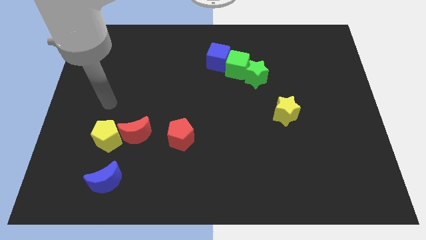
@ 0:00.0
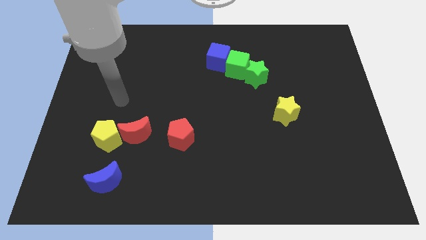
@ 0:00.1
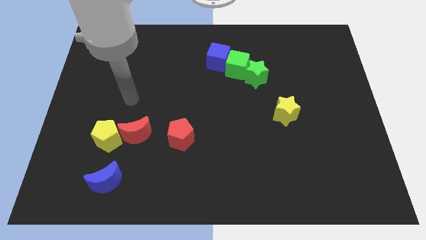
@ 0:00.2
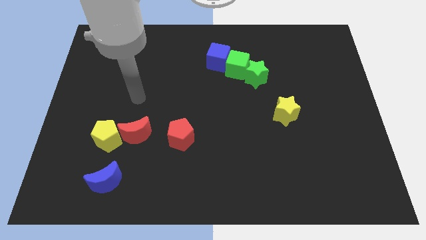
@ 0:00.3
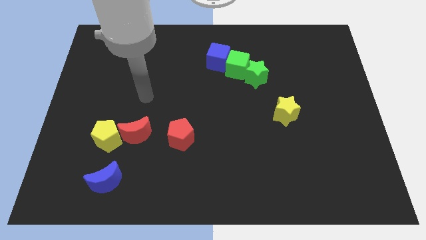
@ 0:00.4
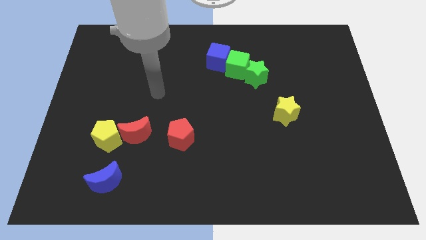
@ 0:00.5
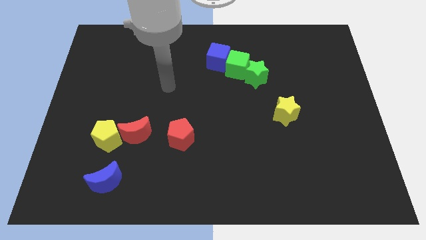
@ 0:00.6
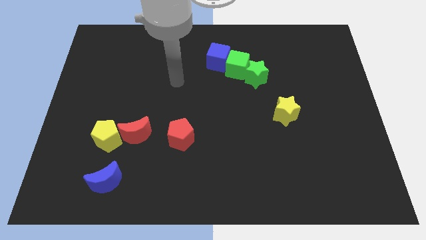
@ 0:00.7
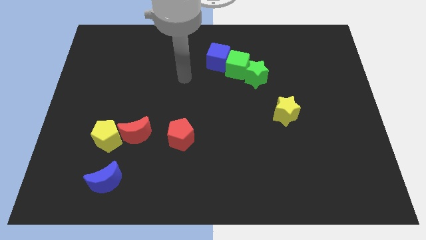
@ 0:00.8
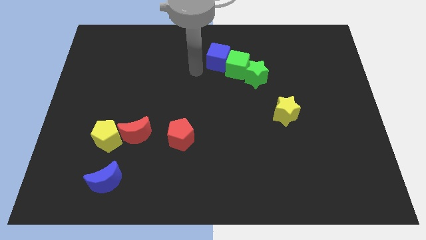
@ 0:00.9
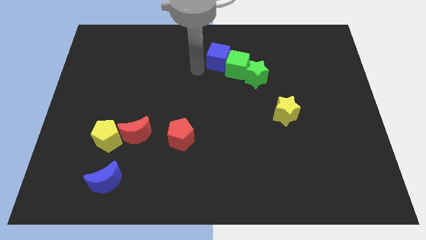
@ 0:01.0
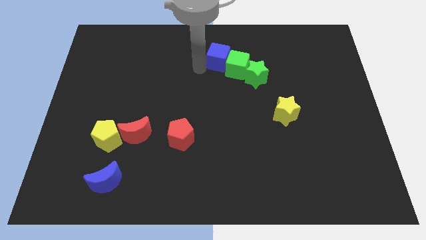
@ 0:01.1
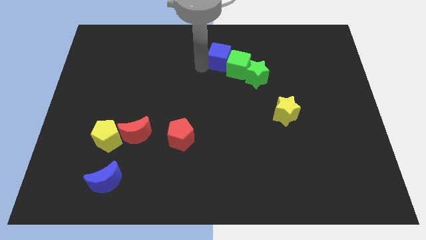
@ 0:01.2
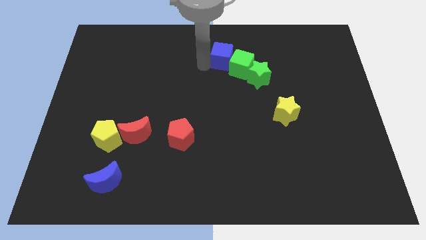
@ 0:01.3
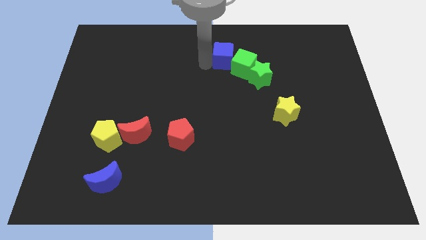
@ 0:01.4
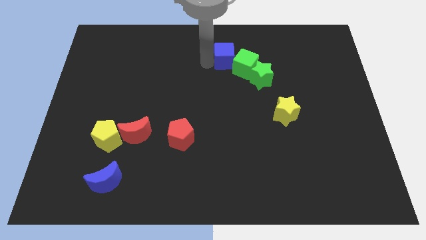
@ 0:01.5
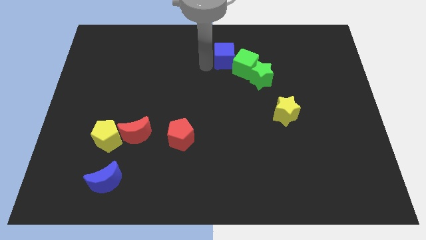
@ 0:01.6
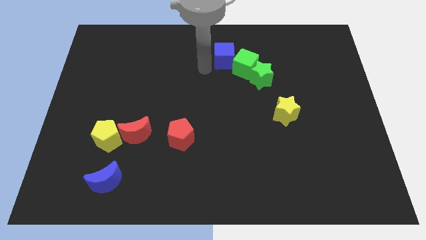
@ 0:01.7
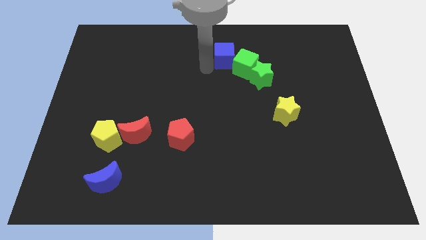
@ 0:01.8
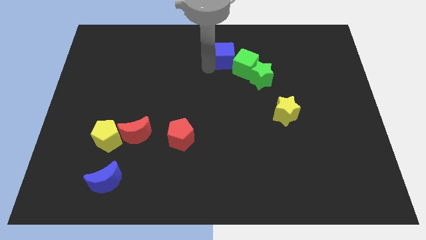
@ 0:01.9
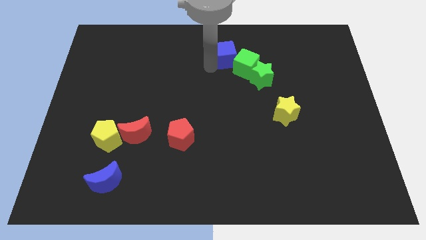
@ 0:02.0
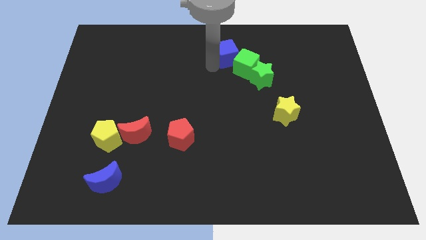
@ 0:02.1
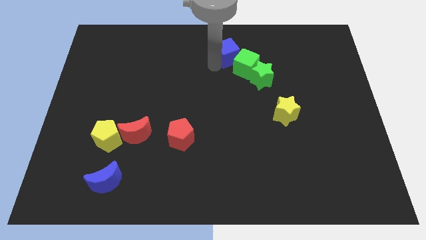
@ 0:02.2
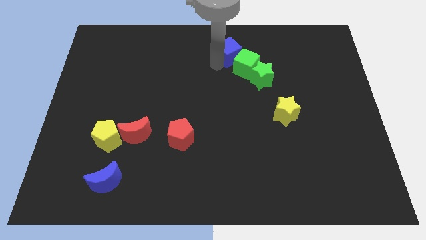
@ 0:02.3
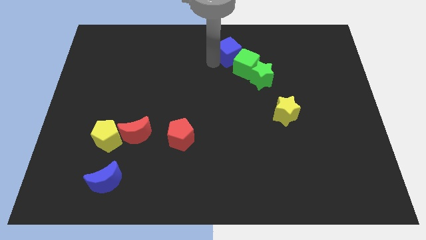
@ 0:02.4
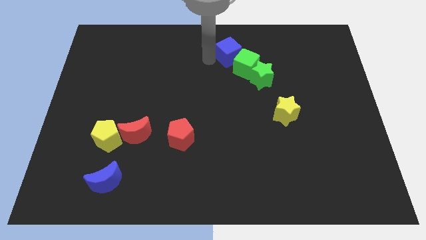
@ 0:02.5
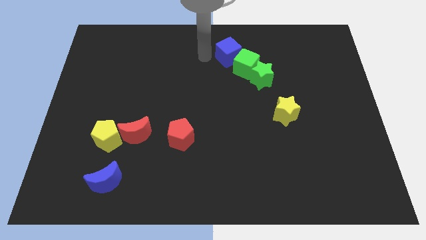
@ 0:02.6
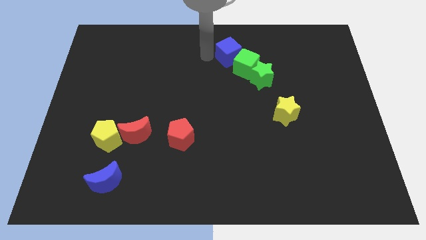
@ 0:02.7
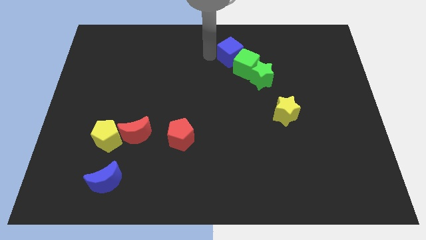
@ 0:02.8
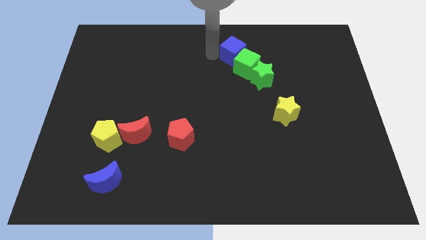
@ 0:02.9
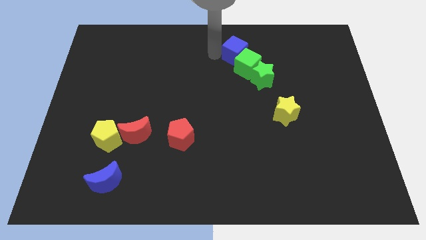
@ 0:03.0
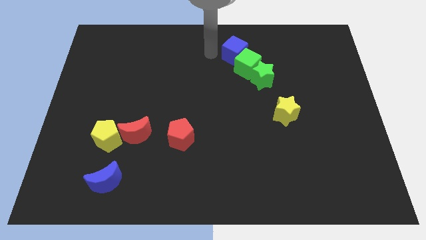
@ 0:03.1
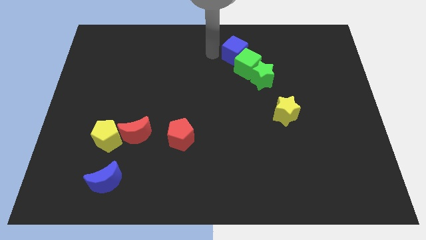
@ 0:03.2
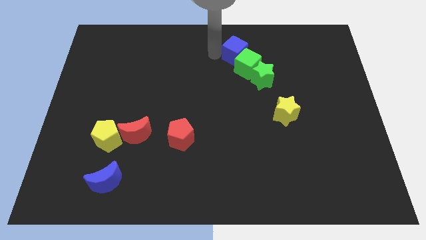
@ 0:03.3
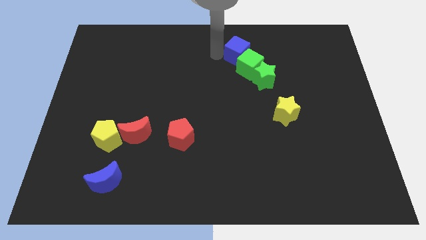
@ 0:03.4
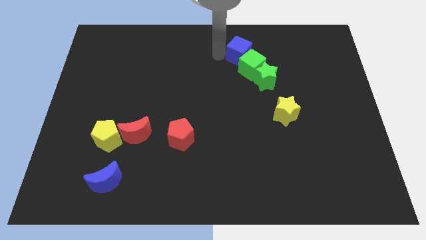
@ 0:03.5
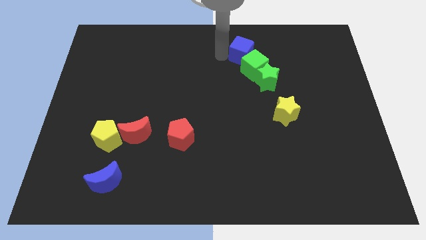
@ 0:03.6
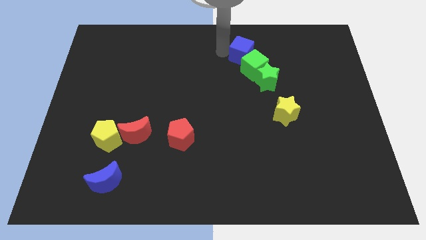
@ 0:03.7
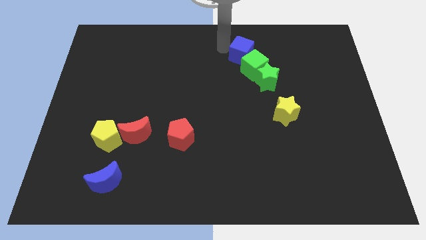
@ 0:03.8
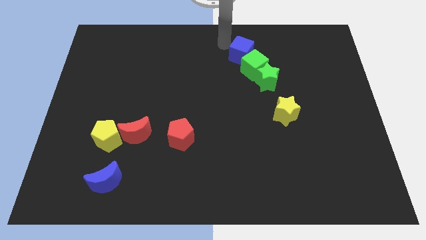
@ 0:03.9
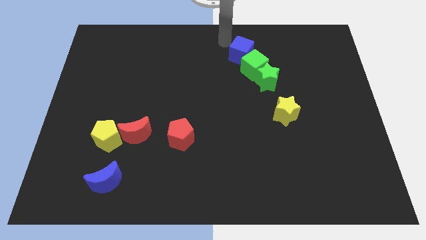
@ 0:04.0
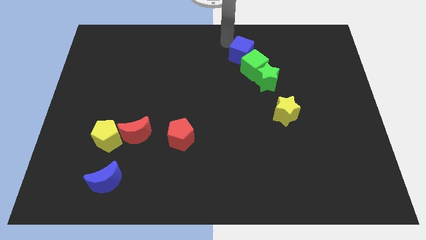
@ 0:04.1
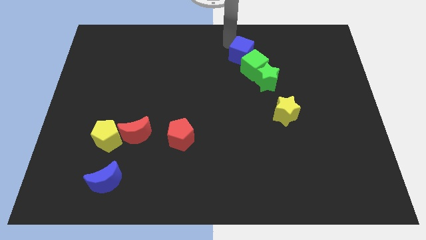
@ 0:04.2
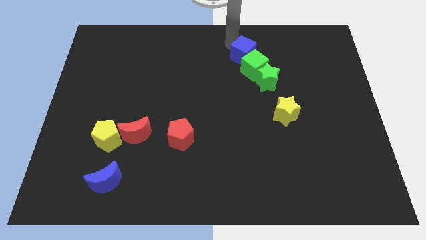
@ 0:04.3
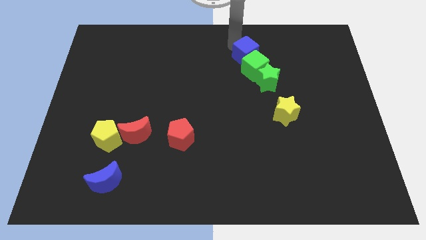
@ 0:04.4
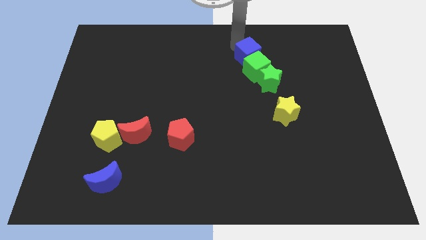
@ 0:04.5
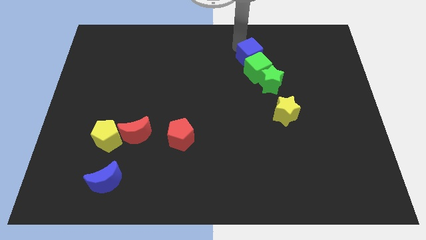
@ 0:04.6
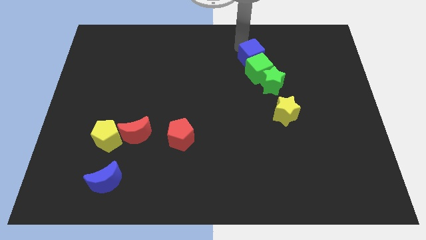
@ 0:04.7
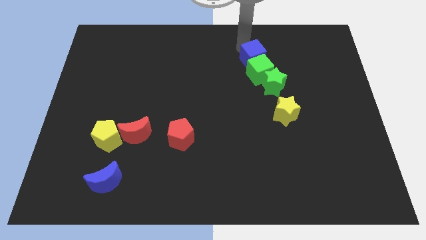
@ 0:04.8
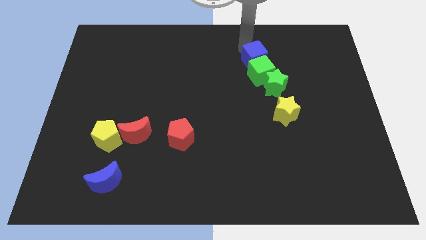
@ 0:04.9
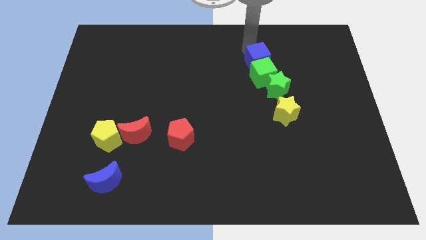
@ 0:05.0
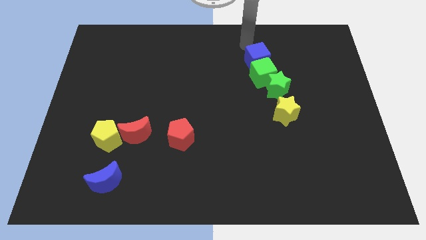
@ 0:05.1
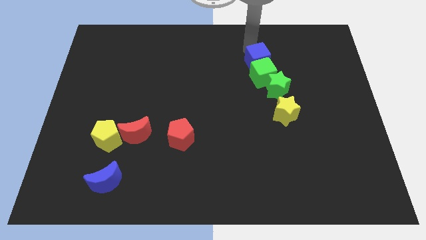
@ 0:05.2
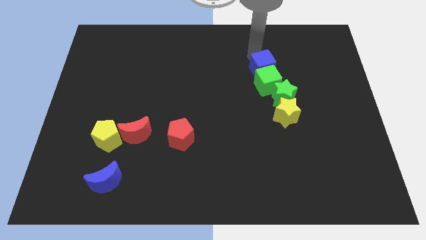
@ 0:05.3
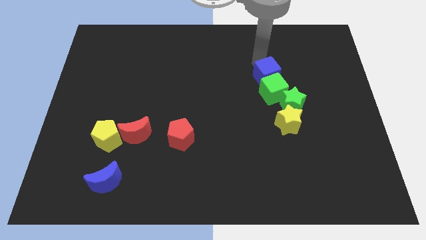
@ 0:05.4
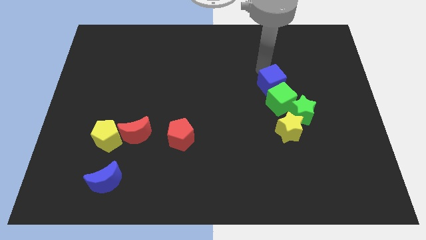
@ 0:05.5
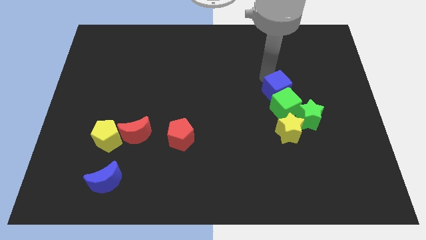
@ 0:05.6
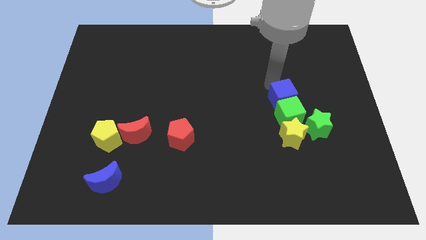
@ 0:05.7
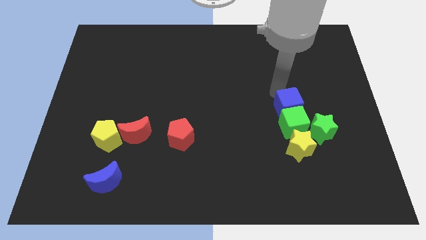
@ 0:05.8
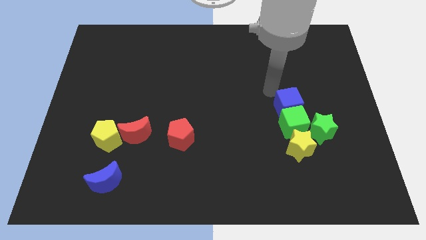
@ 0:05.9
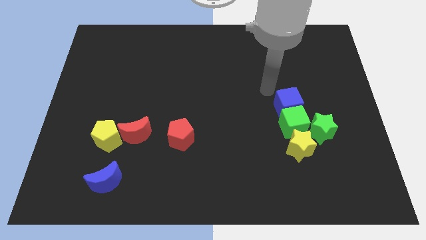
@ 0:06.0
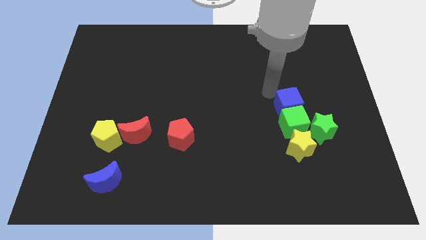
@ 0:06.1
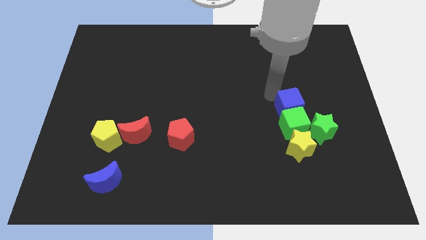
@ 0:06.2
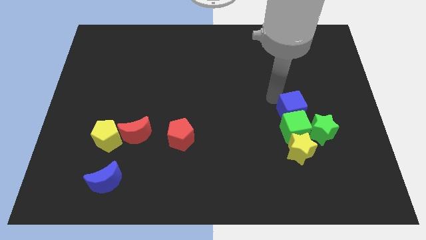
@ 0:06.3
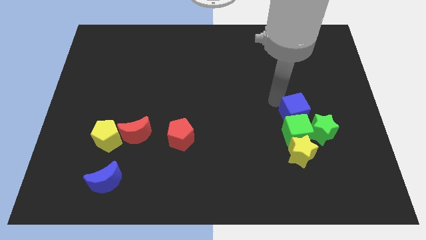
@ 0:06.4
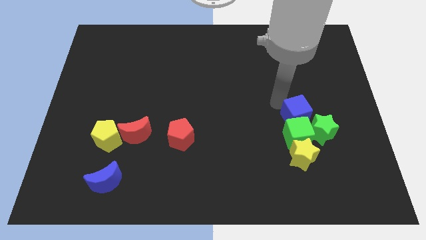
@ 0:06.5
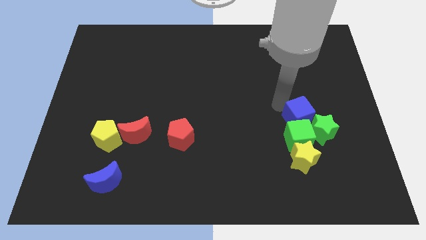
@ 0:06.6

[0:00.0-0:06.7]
slide the blue cube next to the green star

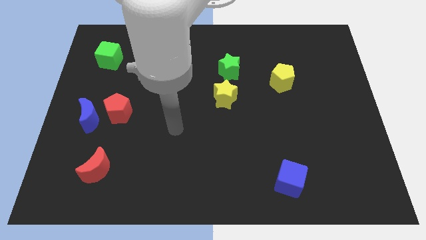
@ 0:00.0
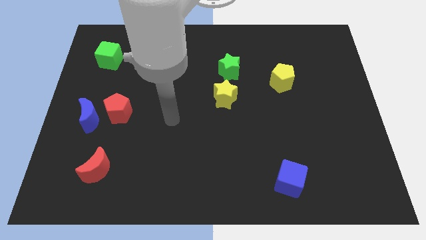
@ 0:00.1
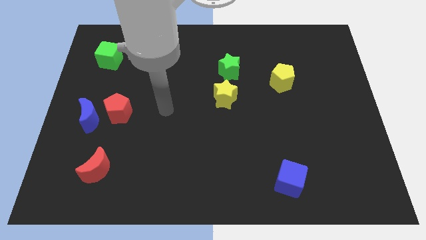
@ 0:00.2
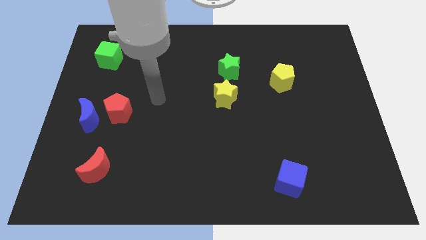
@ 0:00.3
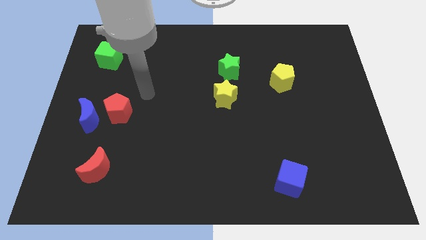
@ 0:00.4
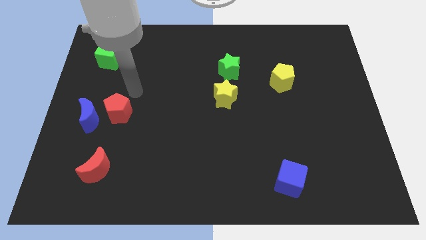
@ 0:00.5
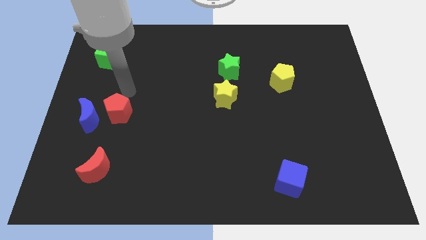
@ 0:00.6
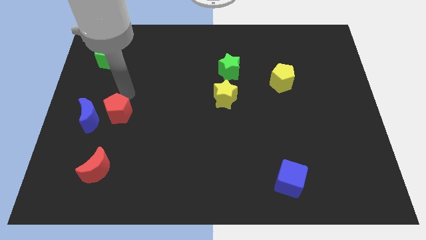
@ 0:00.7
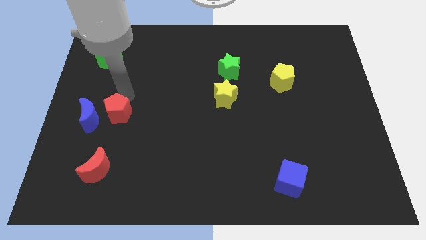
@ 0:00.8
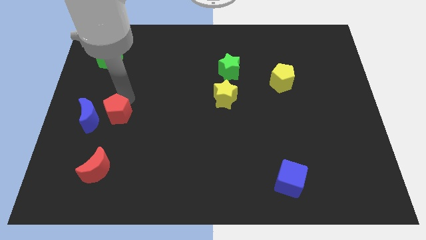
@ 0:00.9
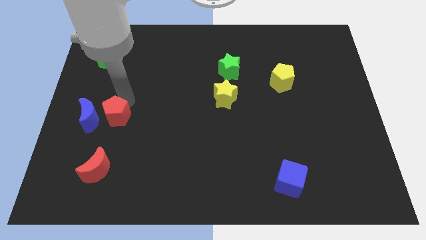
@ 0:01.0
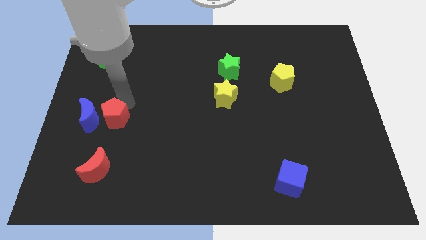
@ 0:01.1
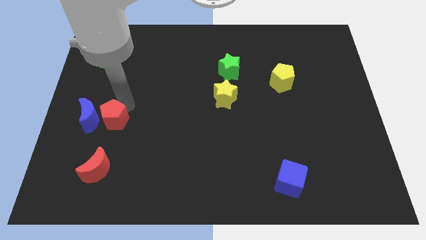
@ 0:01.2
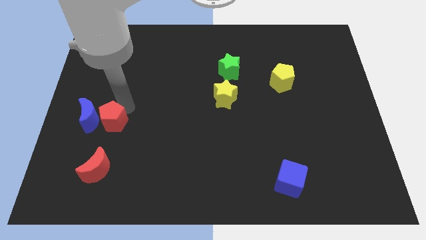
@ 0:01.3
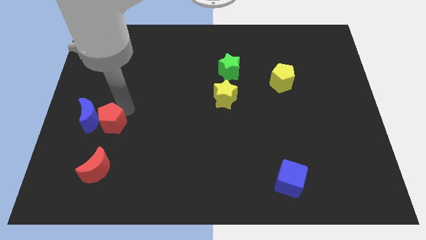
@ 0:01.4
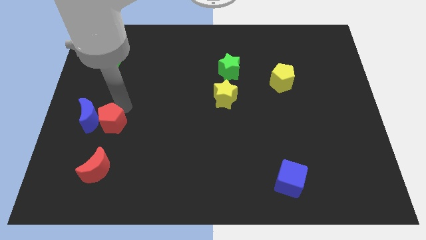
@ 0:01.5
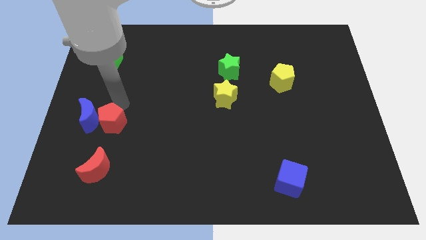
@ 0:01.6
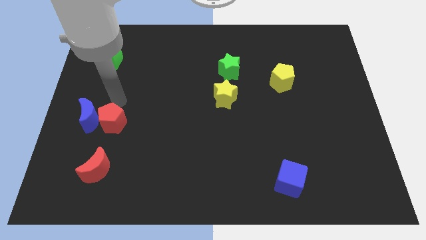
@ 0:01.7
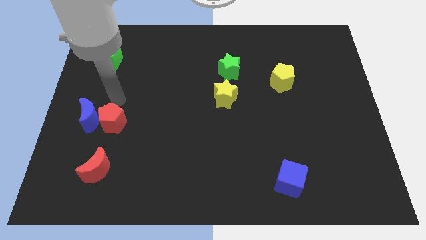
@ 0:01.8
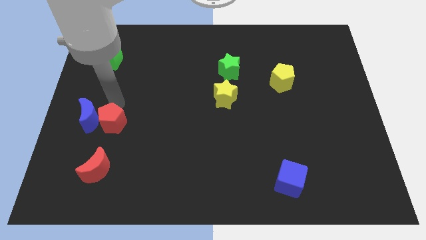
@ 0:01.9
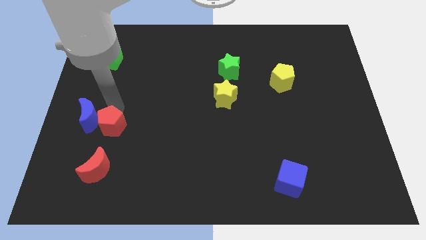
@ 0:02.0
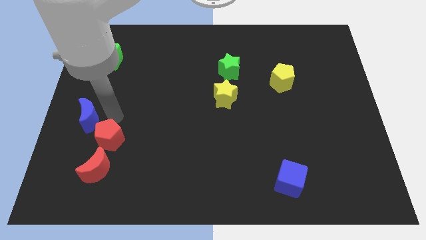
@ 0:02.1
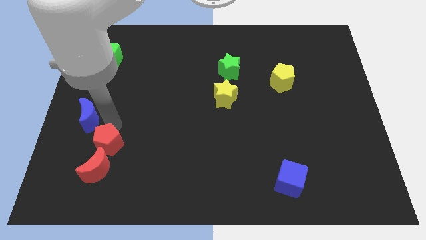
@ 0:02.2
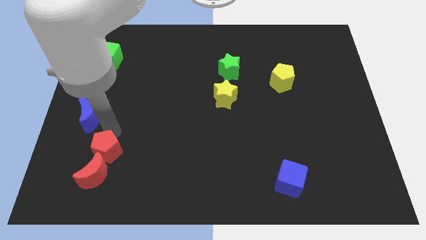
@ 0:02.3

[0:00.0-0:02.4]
put the red pentagon next to the red moon
